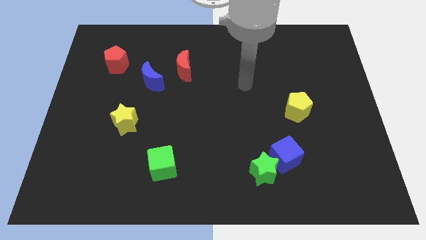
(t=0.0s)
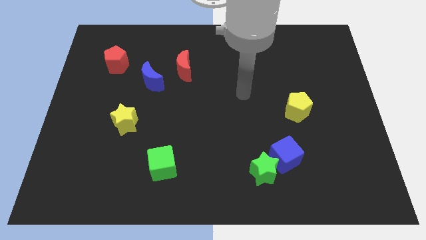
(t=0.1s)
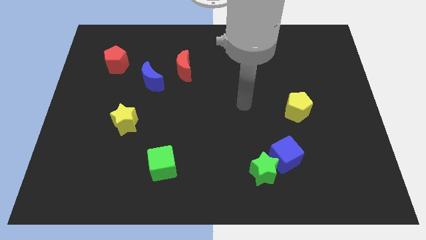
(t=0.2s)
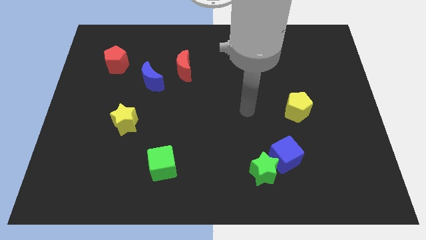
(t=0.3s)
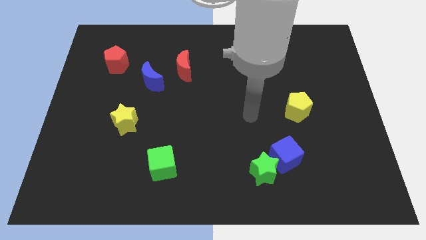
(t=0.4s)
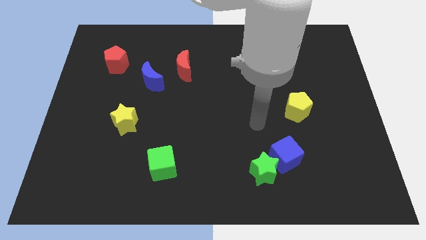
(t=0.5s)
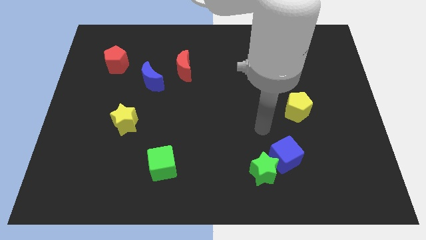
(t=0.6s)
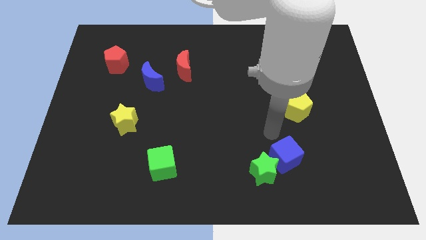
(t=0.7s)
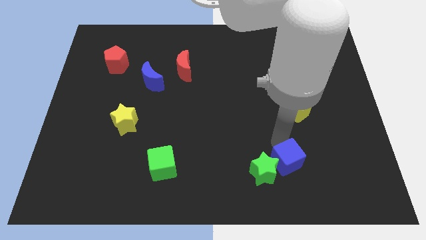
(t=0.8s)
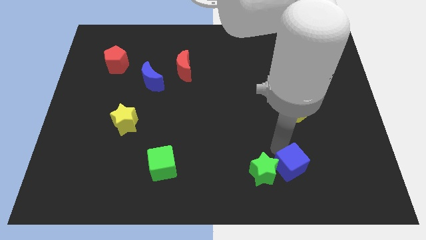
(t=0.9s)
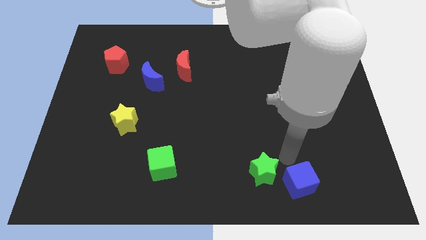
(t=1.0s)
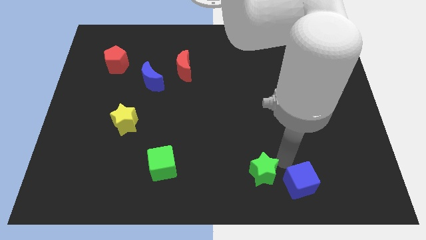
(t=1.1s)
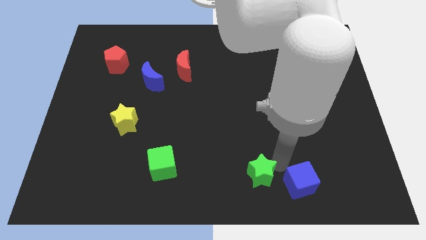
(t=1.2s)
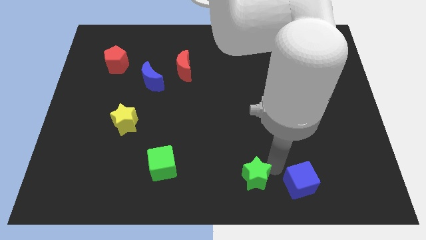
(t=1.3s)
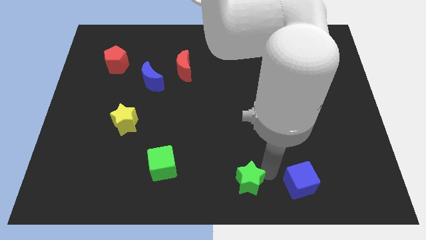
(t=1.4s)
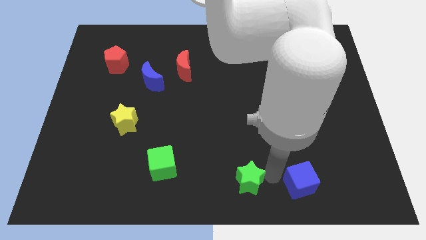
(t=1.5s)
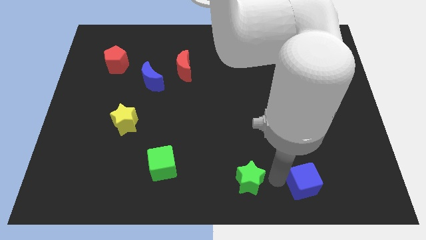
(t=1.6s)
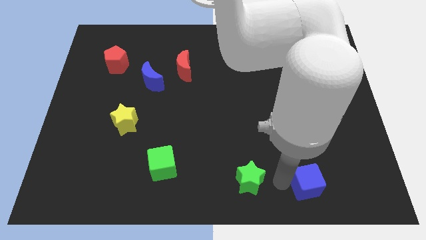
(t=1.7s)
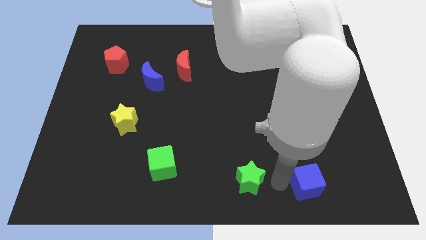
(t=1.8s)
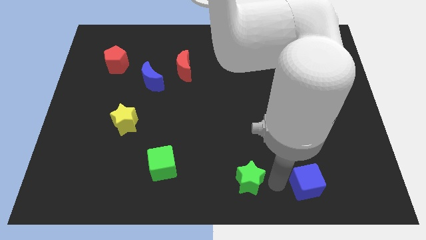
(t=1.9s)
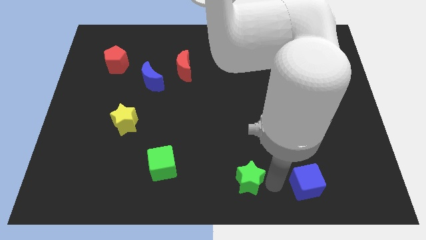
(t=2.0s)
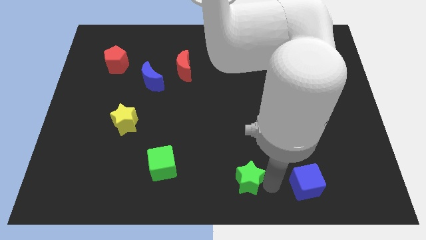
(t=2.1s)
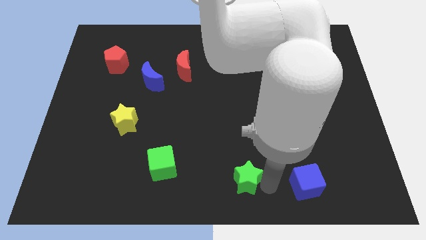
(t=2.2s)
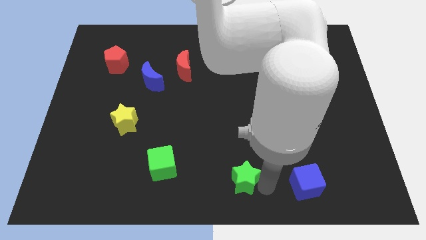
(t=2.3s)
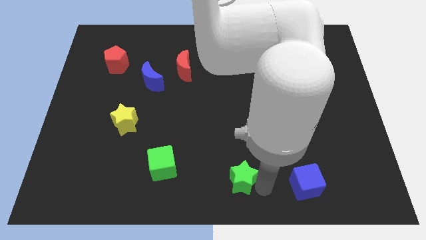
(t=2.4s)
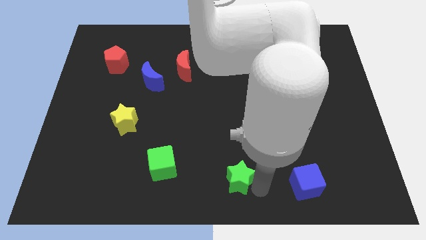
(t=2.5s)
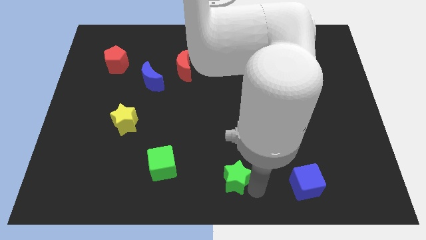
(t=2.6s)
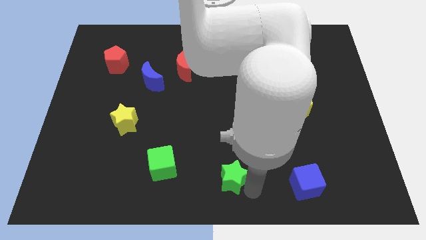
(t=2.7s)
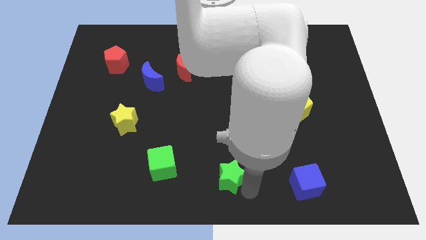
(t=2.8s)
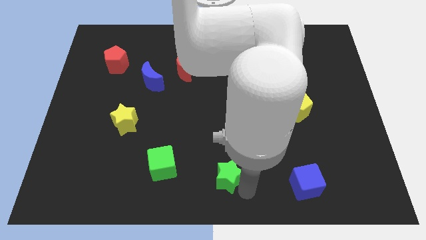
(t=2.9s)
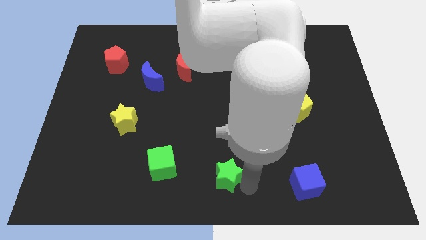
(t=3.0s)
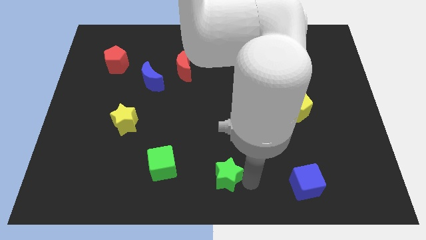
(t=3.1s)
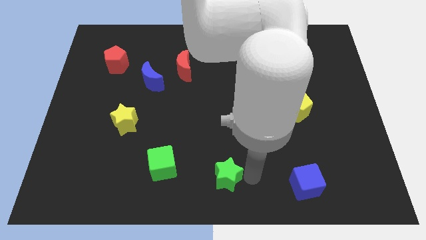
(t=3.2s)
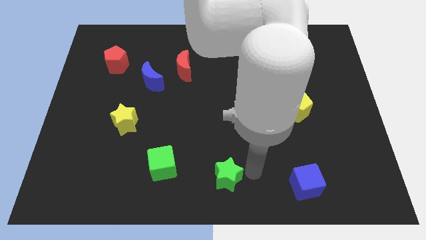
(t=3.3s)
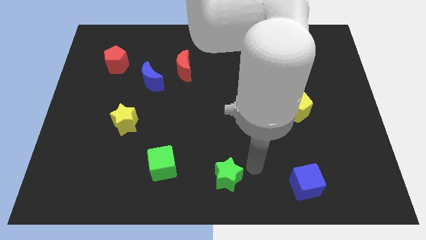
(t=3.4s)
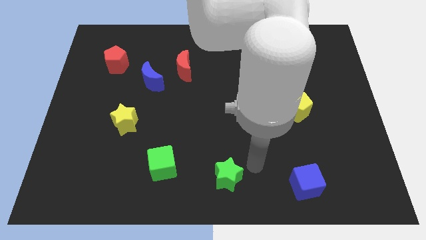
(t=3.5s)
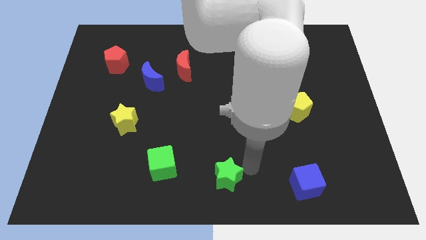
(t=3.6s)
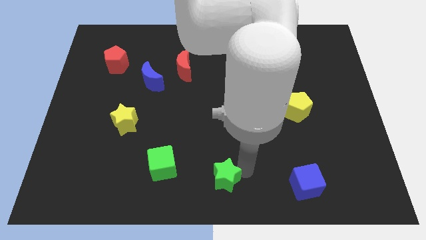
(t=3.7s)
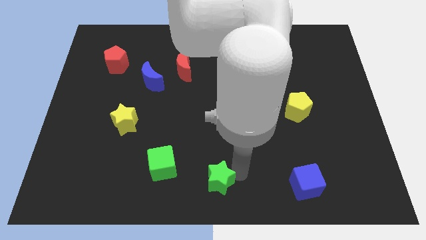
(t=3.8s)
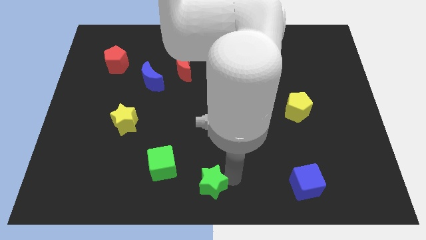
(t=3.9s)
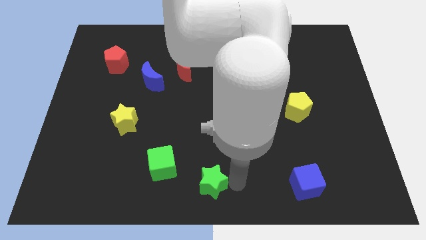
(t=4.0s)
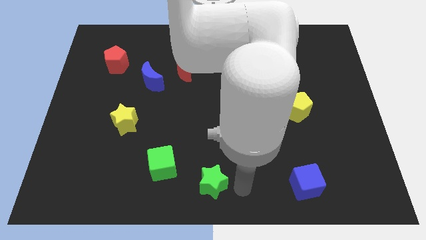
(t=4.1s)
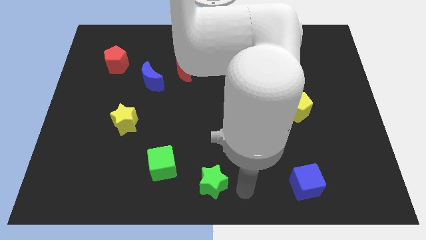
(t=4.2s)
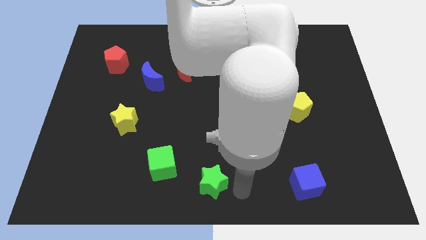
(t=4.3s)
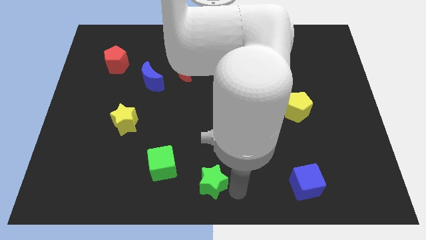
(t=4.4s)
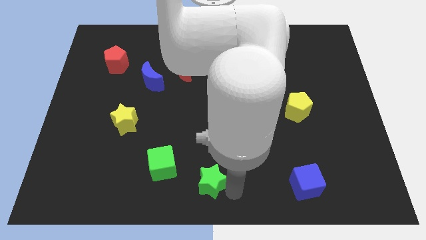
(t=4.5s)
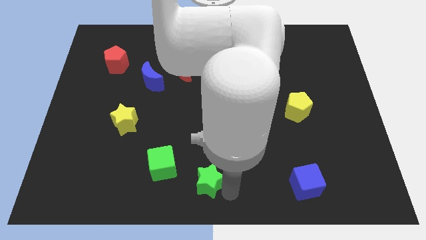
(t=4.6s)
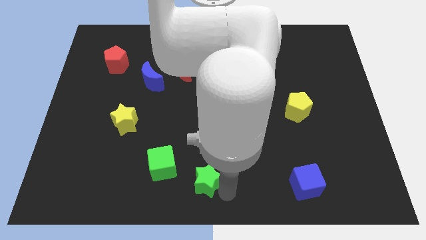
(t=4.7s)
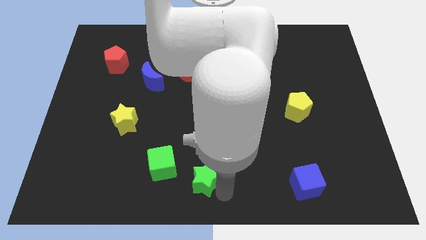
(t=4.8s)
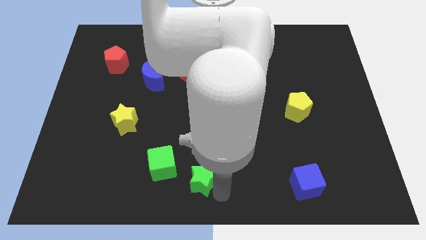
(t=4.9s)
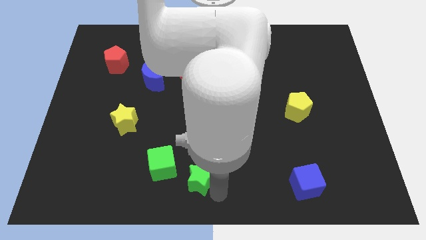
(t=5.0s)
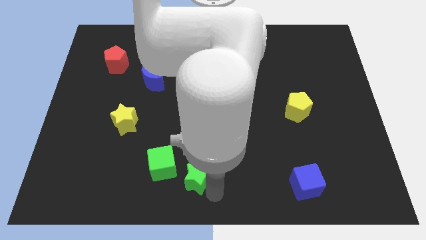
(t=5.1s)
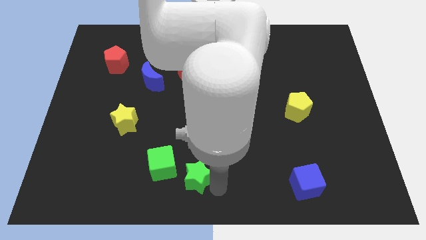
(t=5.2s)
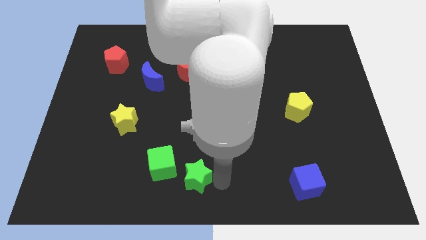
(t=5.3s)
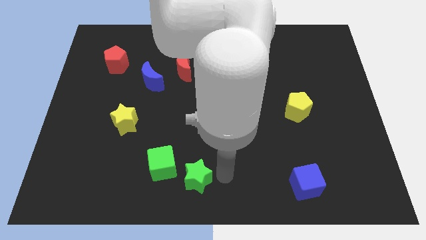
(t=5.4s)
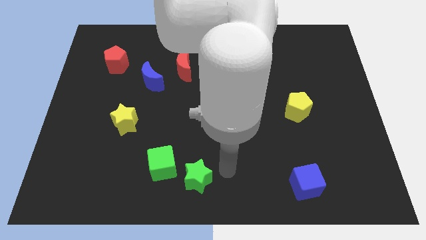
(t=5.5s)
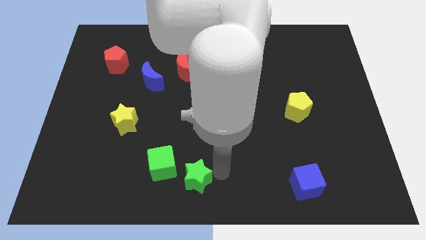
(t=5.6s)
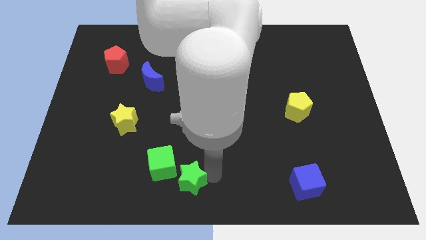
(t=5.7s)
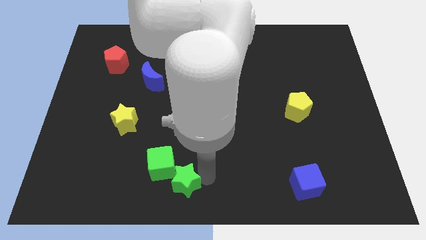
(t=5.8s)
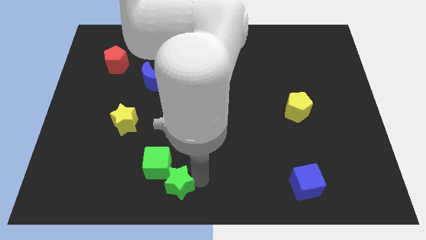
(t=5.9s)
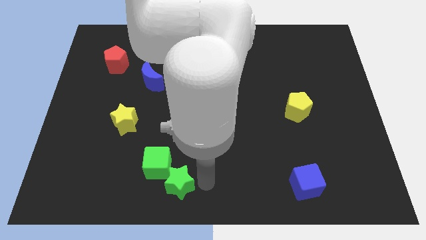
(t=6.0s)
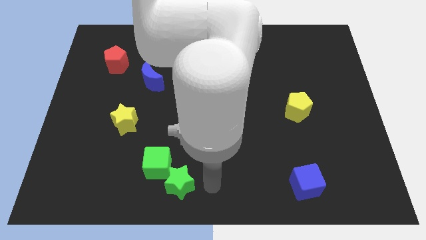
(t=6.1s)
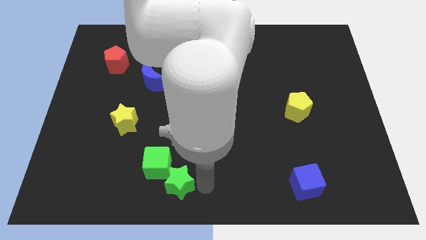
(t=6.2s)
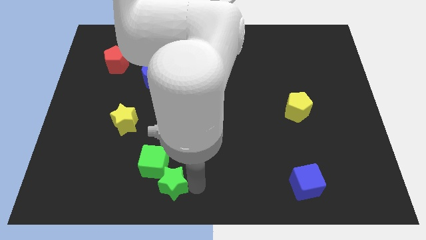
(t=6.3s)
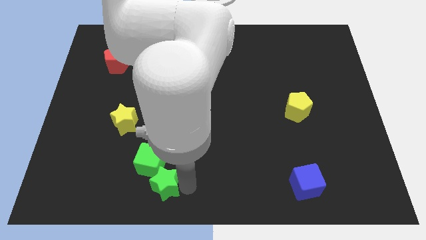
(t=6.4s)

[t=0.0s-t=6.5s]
move the green star left

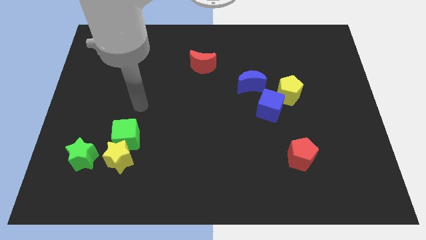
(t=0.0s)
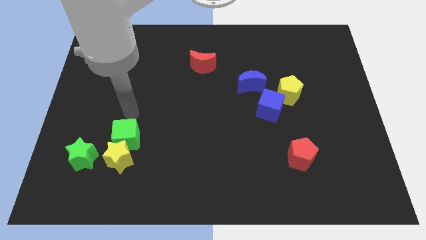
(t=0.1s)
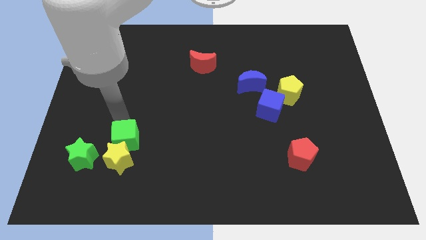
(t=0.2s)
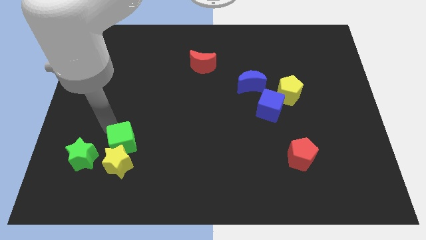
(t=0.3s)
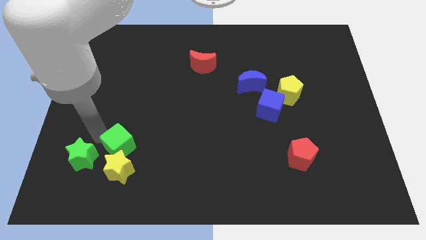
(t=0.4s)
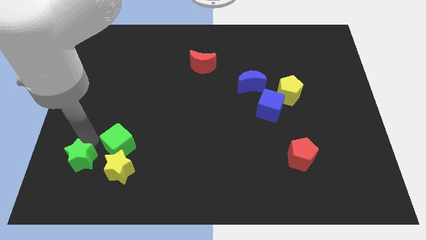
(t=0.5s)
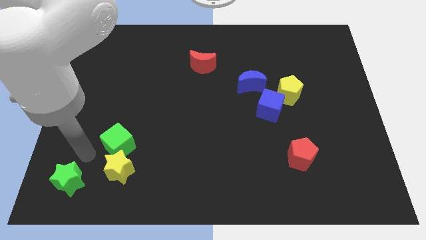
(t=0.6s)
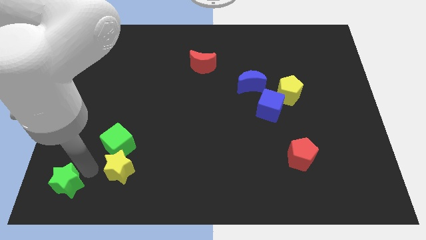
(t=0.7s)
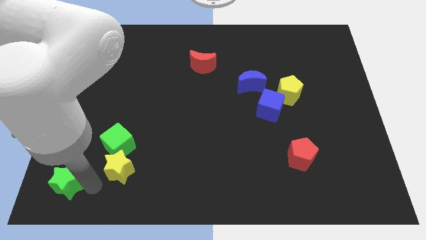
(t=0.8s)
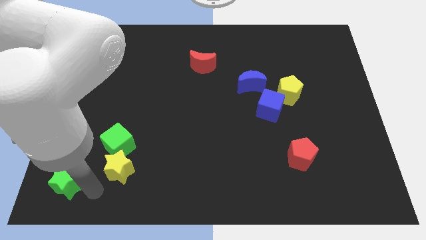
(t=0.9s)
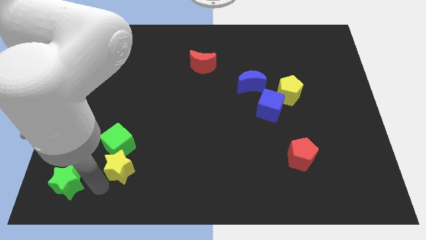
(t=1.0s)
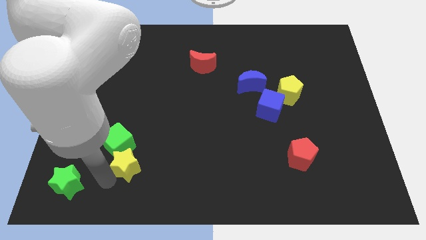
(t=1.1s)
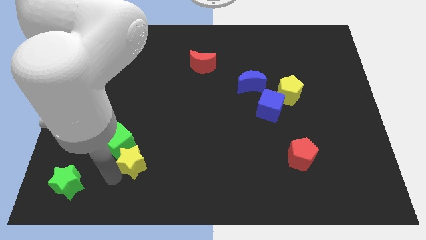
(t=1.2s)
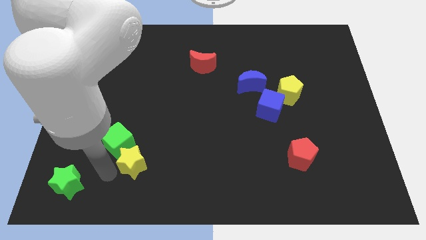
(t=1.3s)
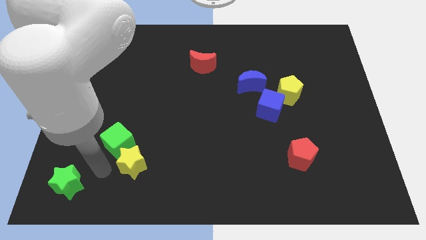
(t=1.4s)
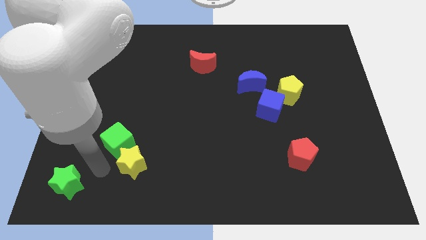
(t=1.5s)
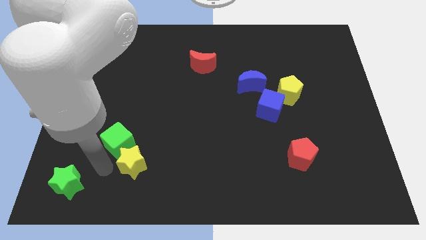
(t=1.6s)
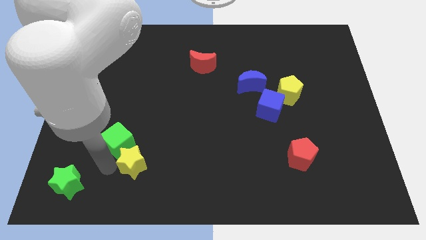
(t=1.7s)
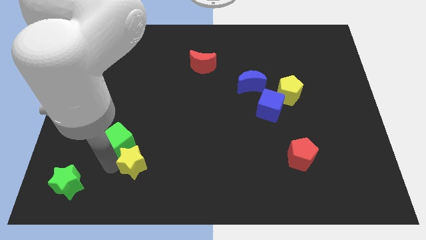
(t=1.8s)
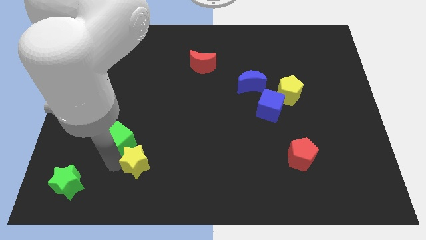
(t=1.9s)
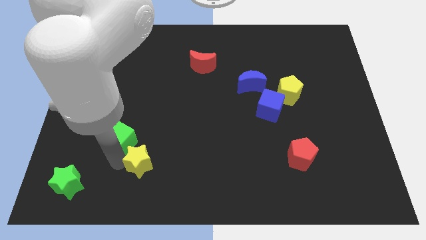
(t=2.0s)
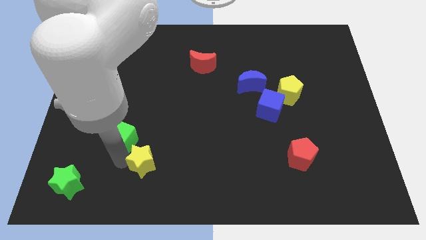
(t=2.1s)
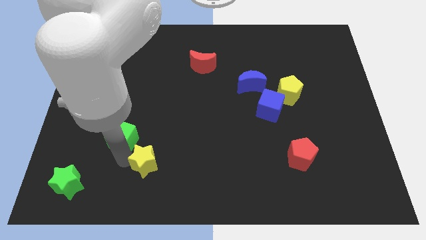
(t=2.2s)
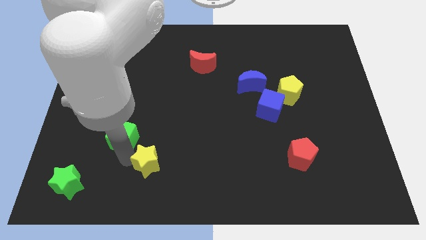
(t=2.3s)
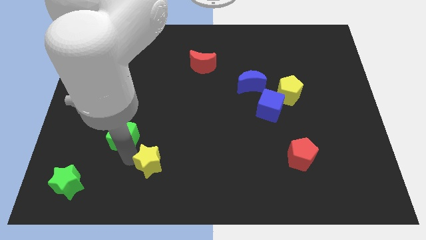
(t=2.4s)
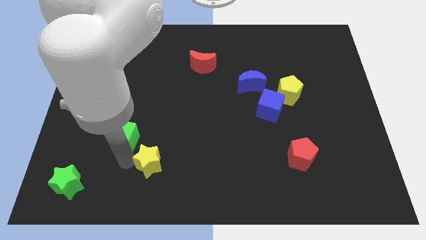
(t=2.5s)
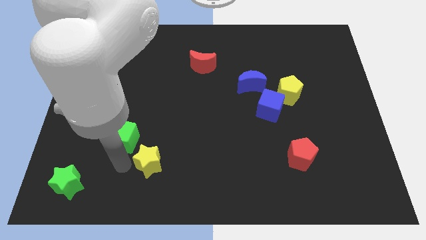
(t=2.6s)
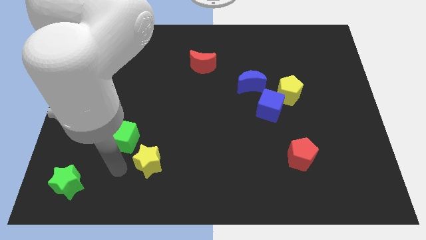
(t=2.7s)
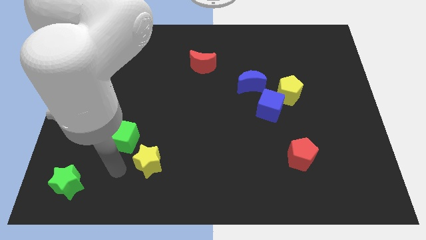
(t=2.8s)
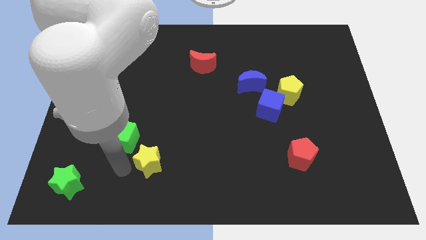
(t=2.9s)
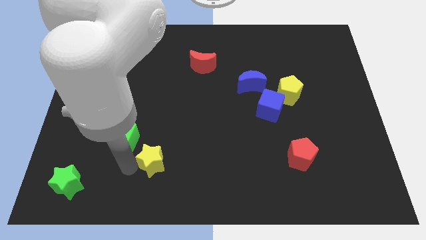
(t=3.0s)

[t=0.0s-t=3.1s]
push the yellow star to the right slightly
